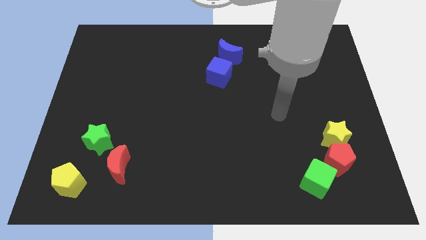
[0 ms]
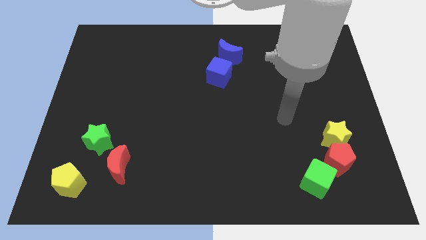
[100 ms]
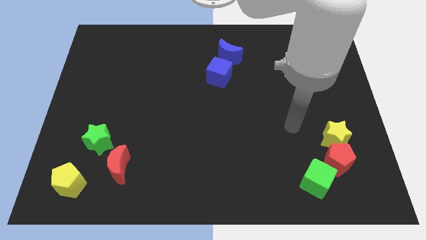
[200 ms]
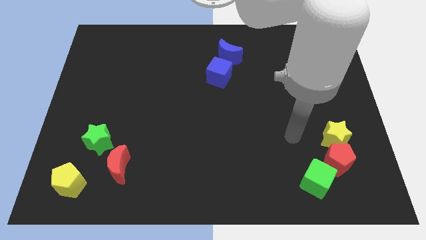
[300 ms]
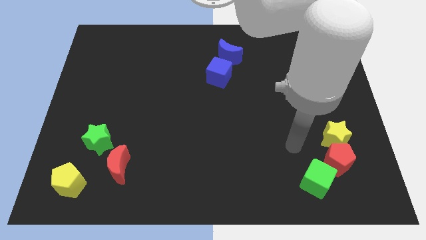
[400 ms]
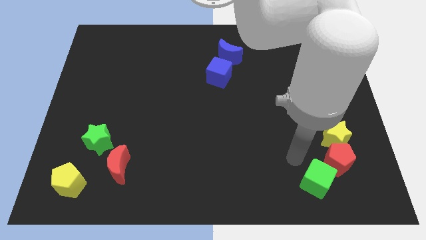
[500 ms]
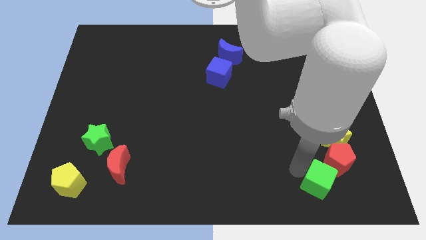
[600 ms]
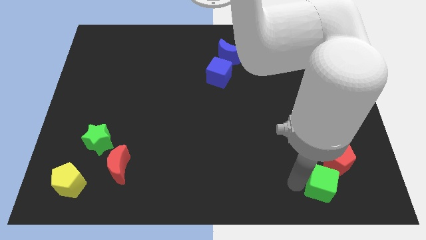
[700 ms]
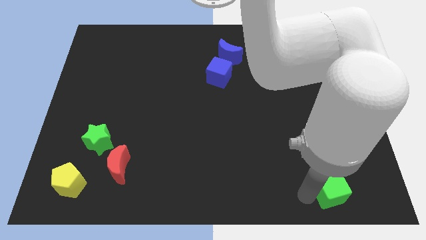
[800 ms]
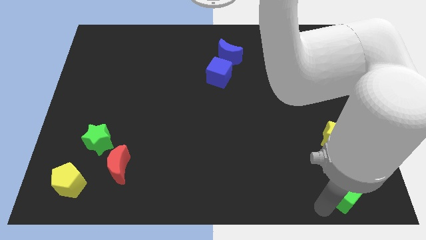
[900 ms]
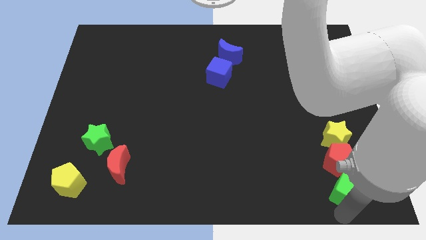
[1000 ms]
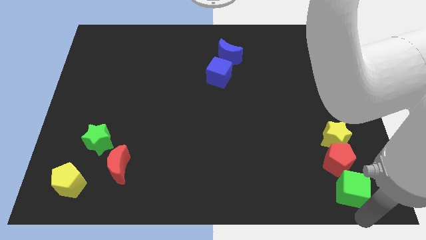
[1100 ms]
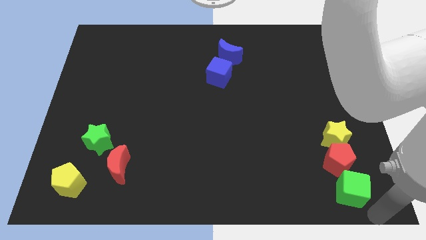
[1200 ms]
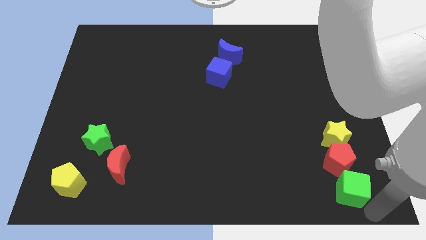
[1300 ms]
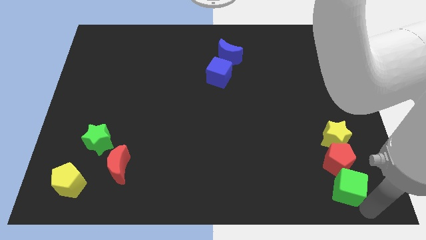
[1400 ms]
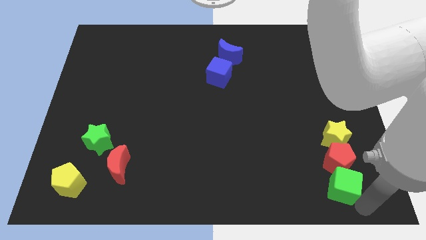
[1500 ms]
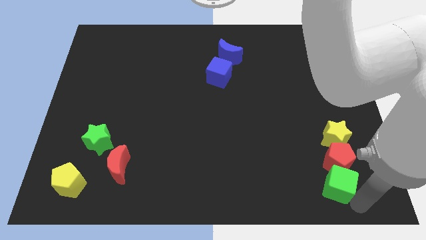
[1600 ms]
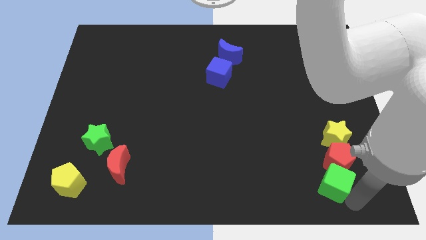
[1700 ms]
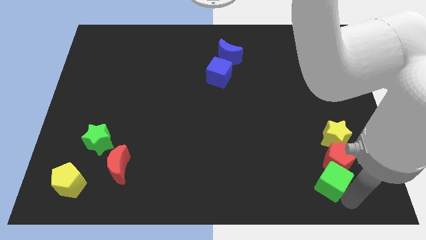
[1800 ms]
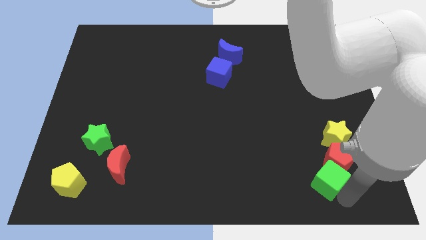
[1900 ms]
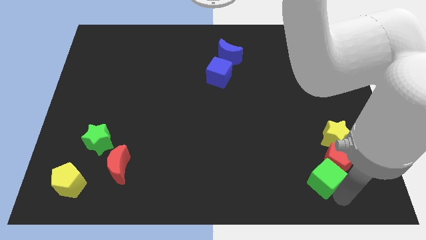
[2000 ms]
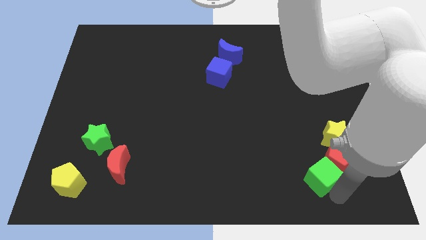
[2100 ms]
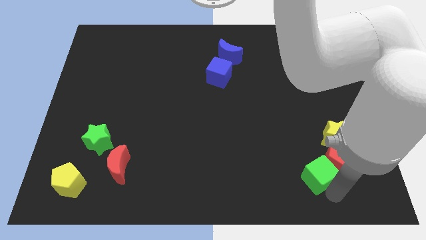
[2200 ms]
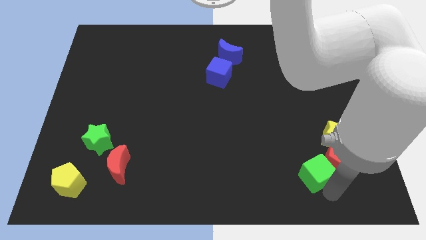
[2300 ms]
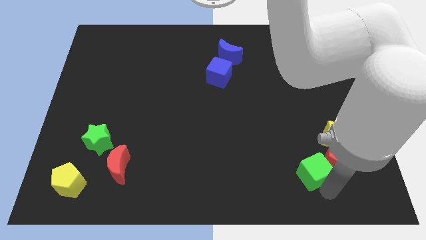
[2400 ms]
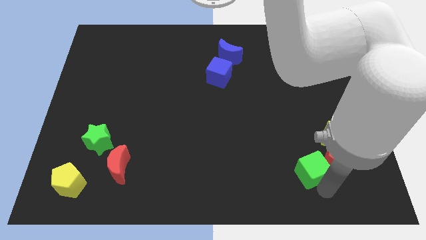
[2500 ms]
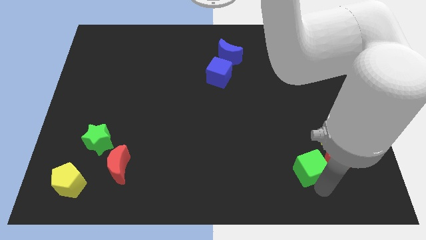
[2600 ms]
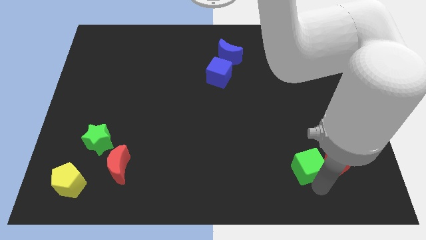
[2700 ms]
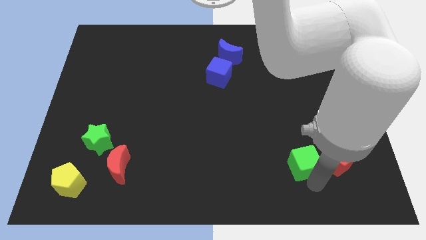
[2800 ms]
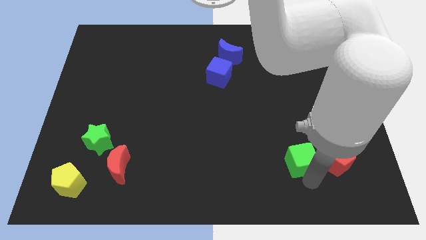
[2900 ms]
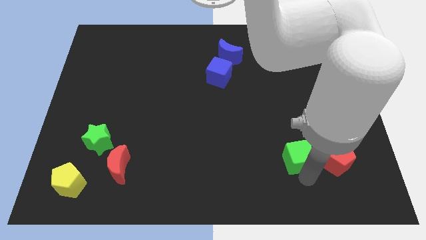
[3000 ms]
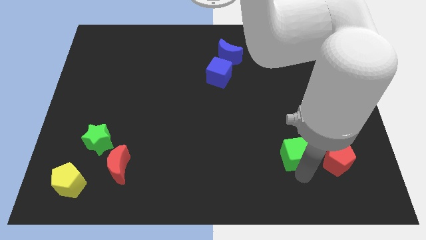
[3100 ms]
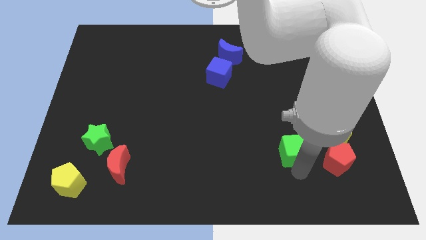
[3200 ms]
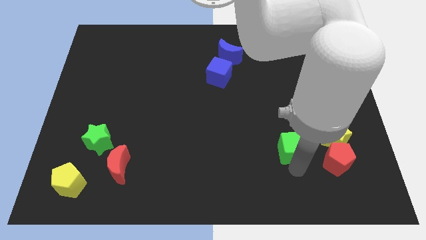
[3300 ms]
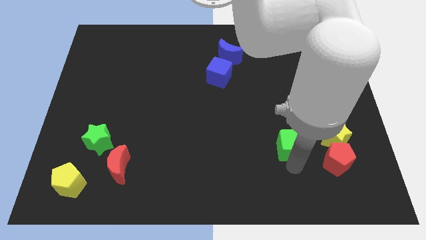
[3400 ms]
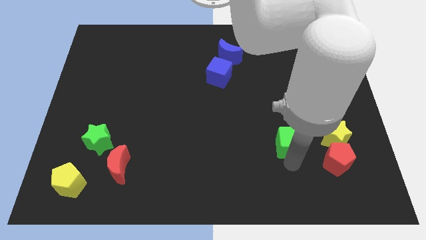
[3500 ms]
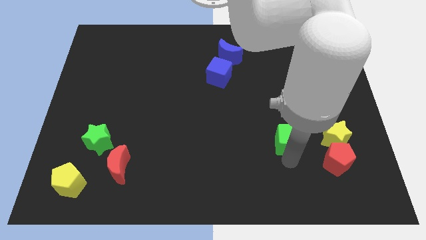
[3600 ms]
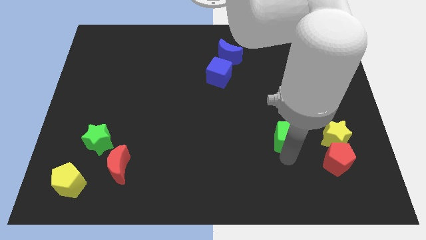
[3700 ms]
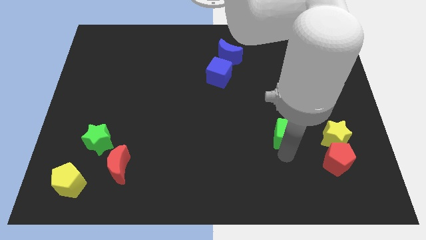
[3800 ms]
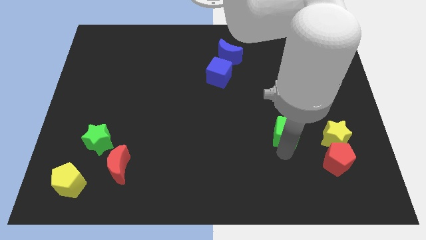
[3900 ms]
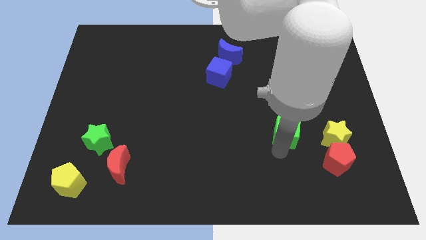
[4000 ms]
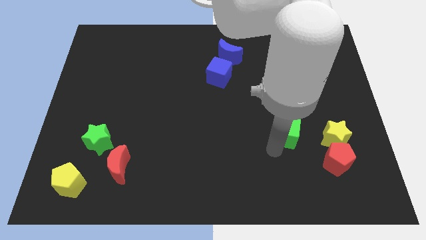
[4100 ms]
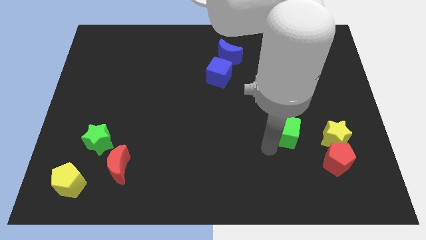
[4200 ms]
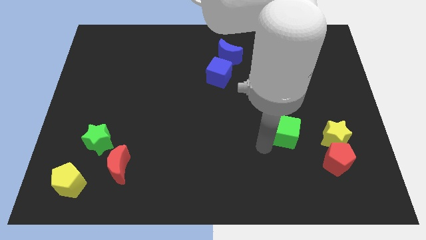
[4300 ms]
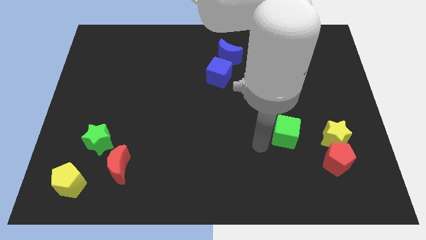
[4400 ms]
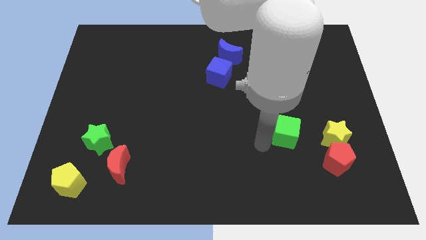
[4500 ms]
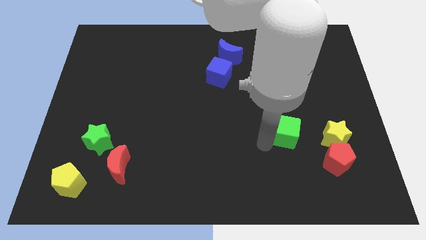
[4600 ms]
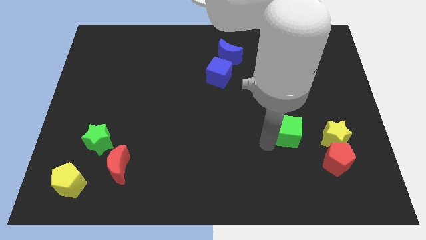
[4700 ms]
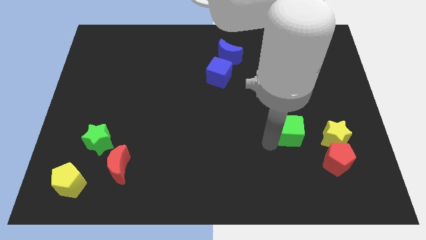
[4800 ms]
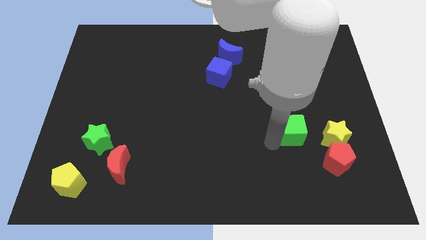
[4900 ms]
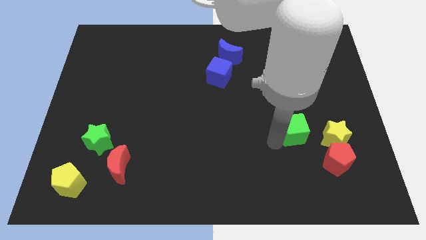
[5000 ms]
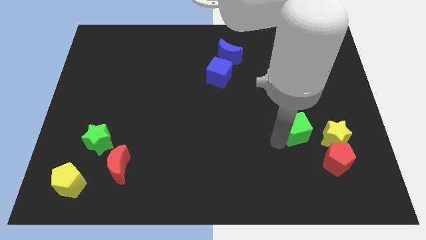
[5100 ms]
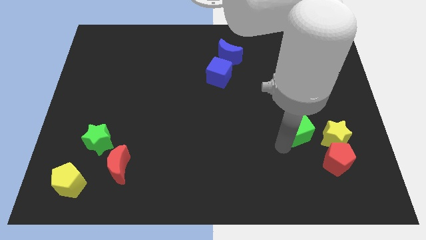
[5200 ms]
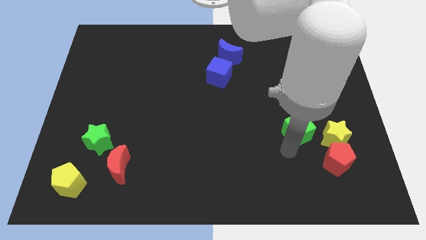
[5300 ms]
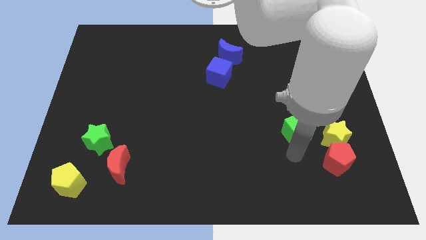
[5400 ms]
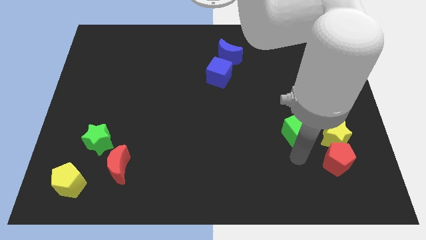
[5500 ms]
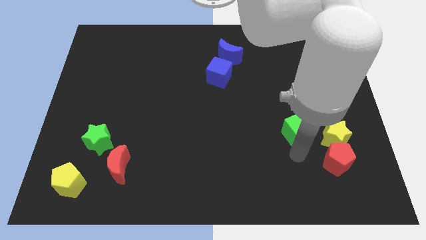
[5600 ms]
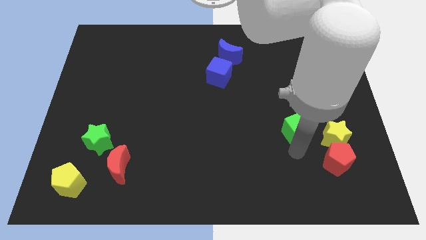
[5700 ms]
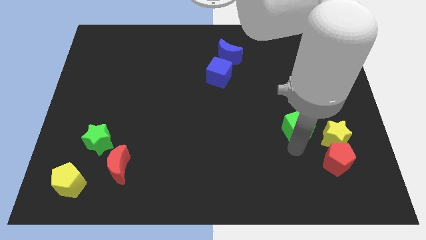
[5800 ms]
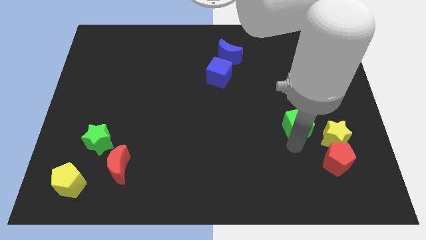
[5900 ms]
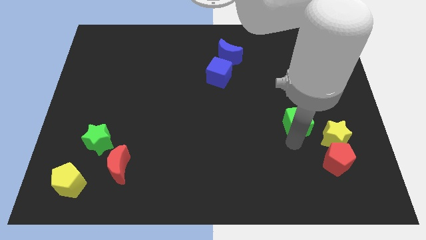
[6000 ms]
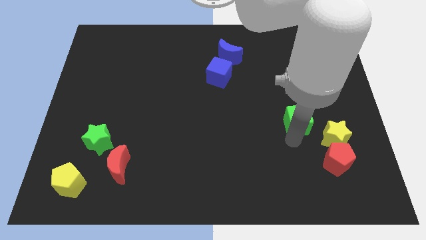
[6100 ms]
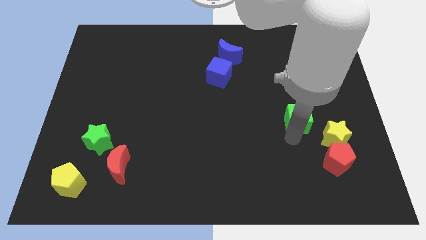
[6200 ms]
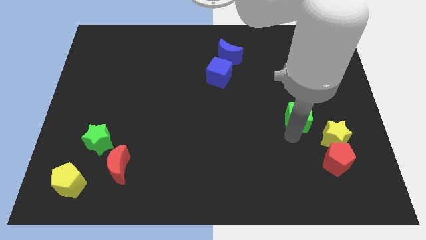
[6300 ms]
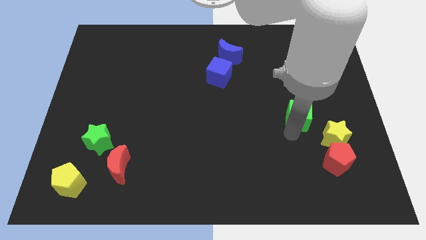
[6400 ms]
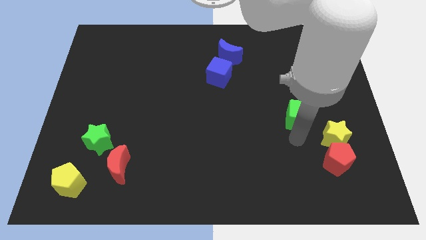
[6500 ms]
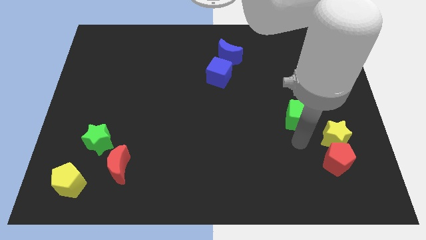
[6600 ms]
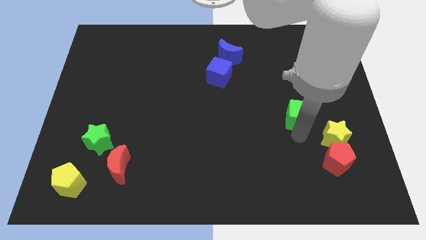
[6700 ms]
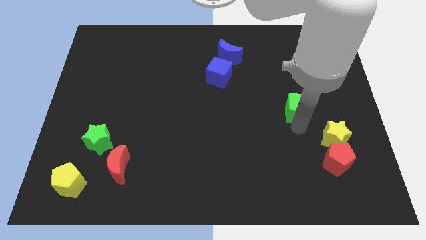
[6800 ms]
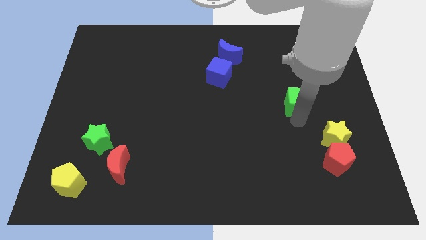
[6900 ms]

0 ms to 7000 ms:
move the green cube upwards

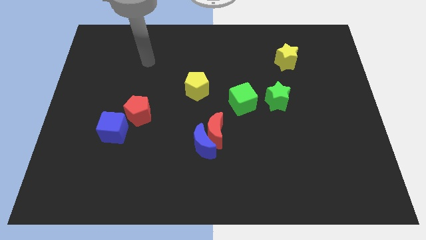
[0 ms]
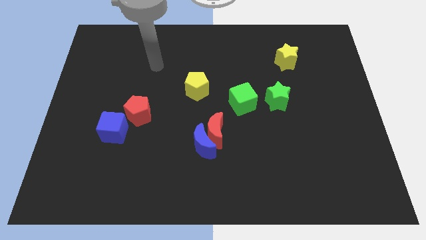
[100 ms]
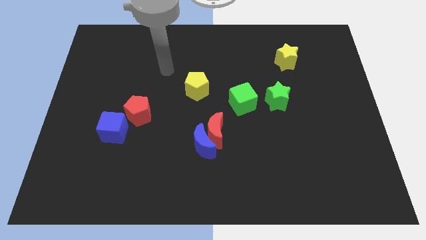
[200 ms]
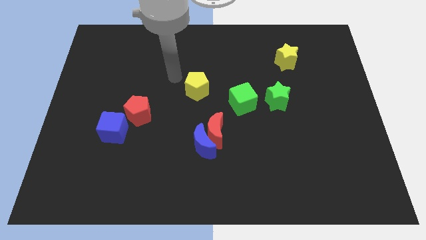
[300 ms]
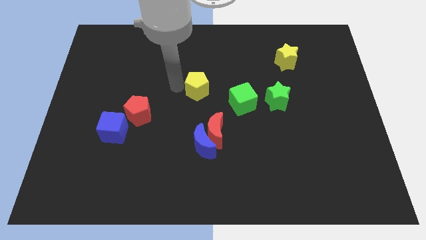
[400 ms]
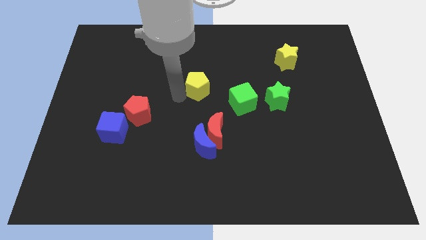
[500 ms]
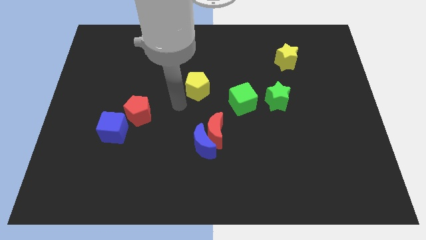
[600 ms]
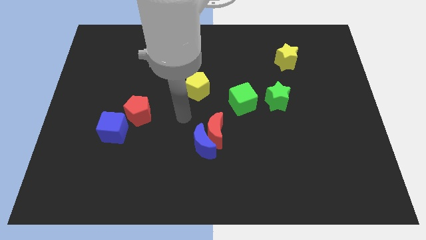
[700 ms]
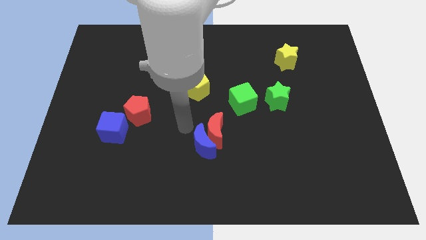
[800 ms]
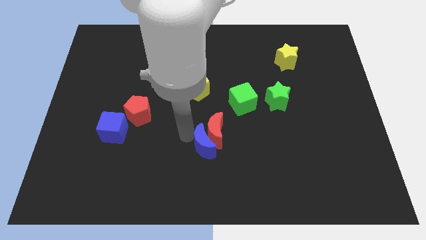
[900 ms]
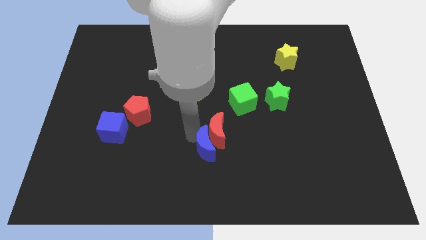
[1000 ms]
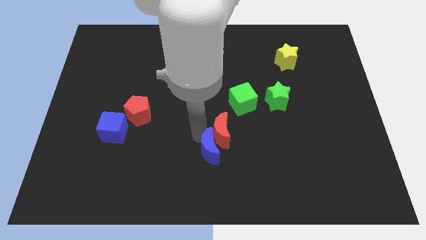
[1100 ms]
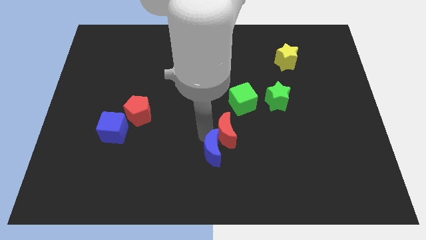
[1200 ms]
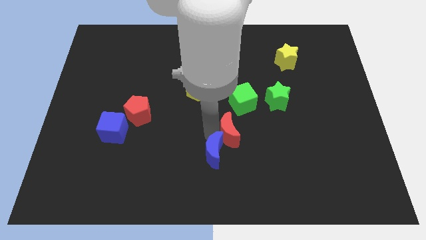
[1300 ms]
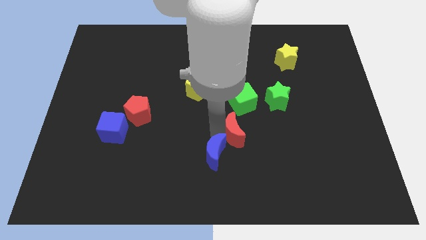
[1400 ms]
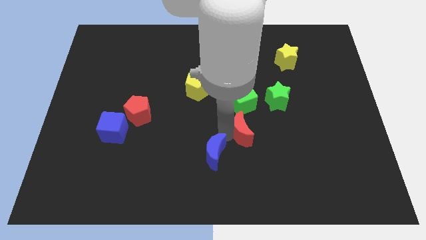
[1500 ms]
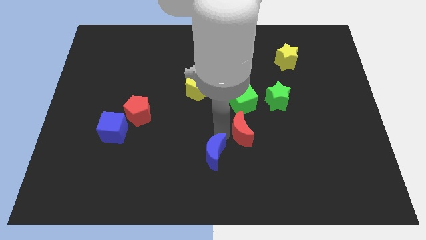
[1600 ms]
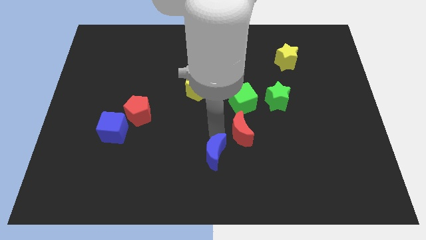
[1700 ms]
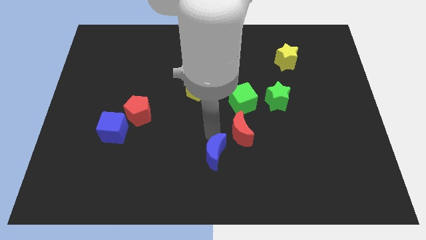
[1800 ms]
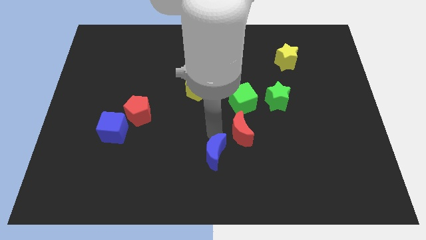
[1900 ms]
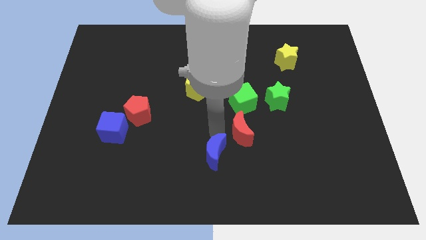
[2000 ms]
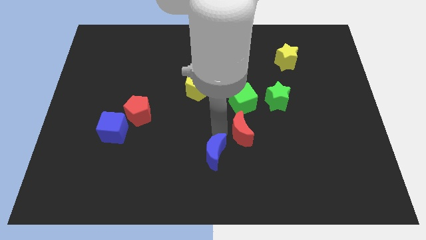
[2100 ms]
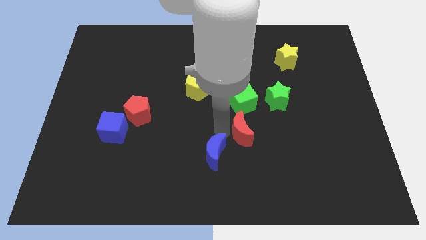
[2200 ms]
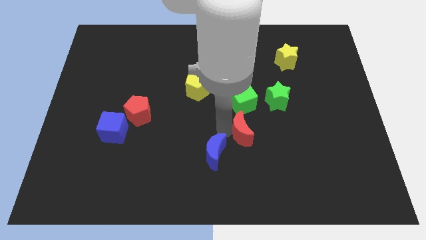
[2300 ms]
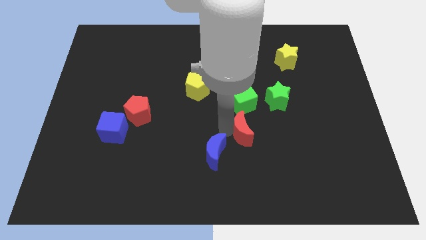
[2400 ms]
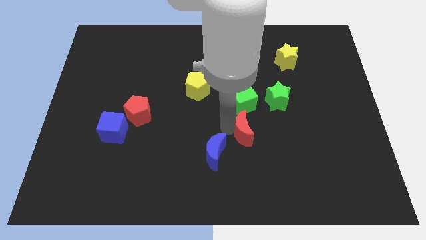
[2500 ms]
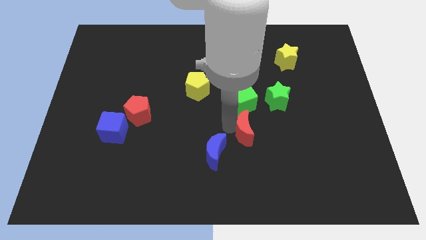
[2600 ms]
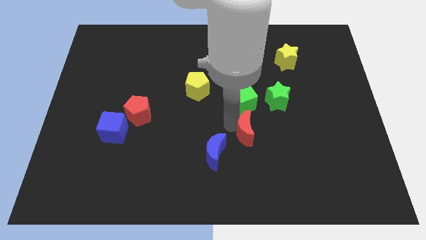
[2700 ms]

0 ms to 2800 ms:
slide the red moon right a little
